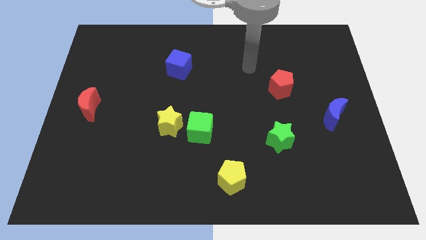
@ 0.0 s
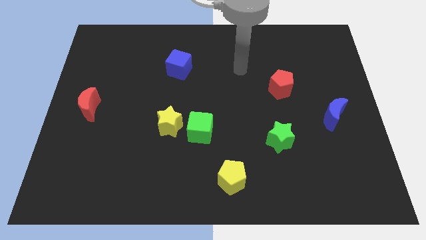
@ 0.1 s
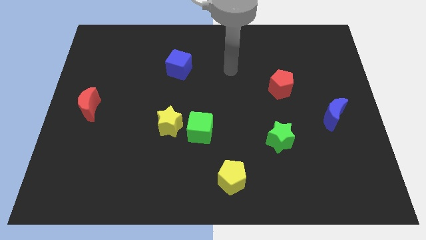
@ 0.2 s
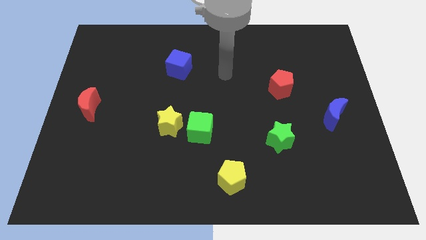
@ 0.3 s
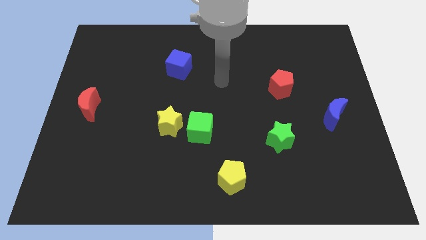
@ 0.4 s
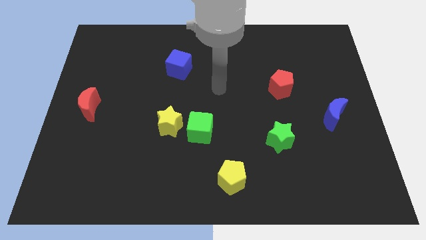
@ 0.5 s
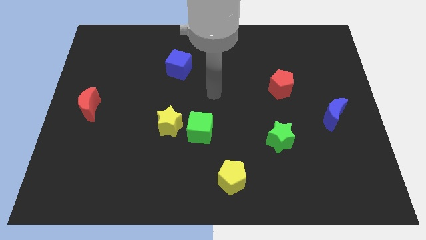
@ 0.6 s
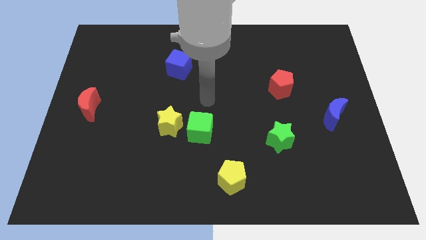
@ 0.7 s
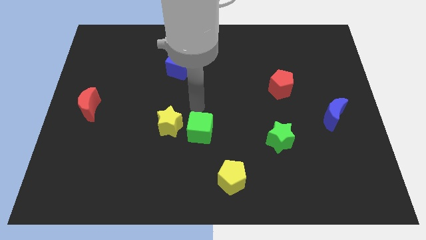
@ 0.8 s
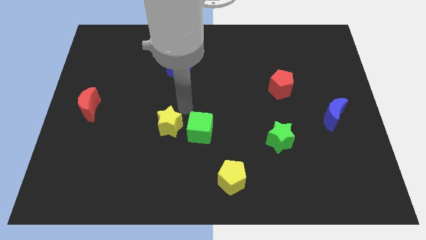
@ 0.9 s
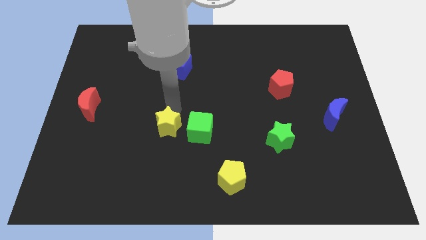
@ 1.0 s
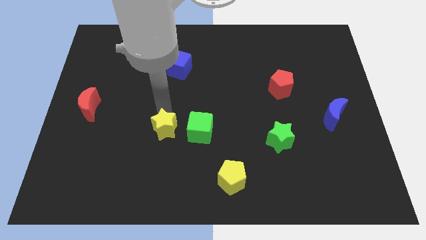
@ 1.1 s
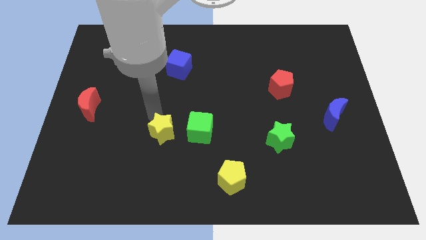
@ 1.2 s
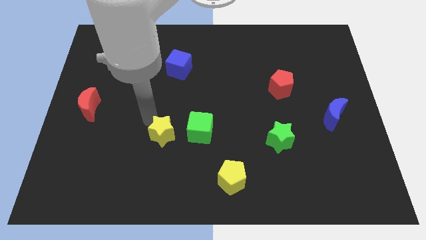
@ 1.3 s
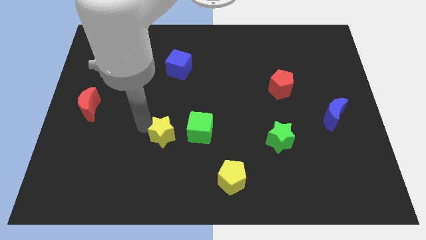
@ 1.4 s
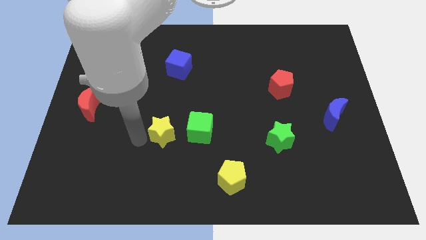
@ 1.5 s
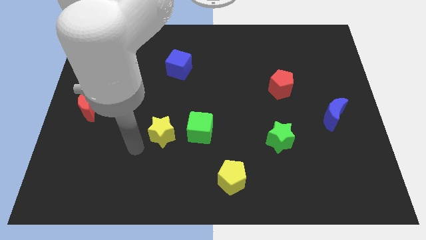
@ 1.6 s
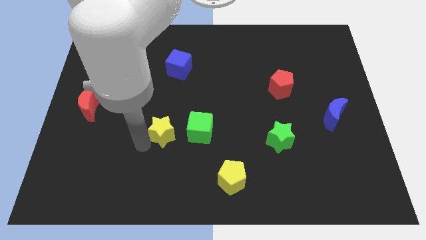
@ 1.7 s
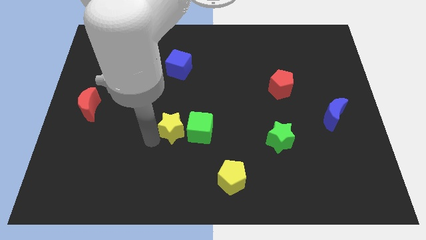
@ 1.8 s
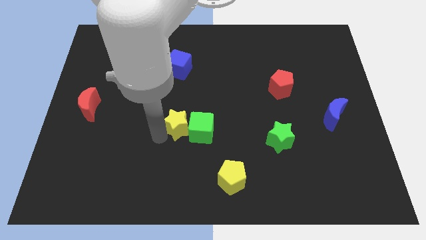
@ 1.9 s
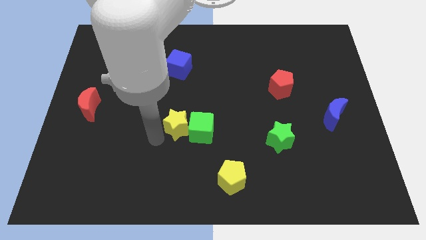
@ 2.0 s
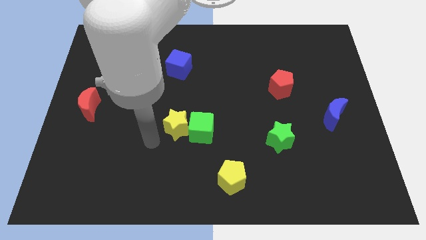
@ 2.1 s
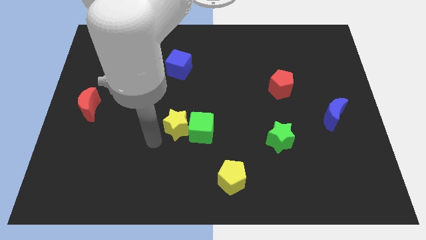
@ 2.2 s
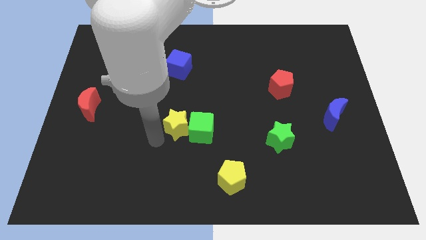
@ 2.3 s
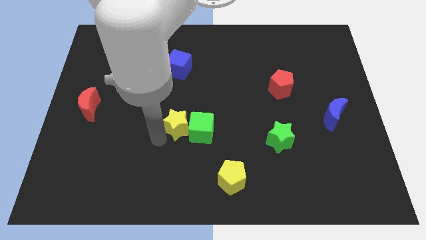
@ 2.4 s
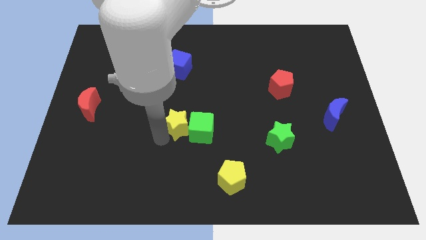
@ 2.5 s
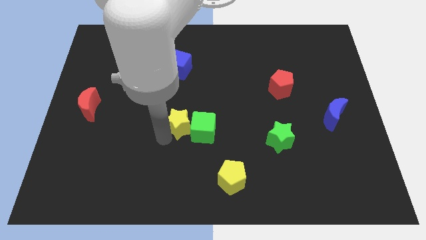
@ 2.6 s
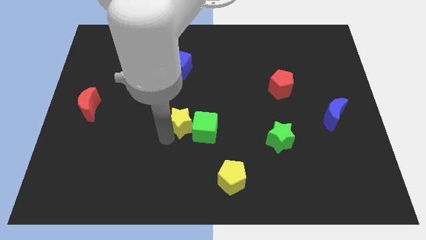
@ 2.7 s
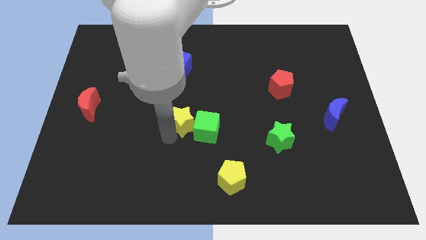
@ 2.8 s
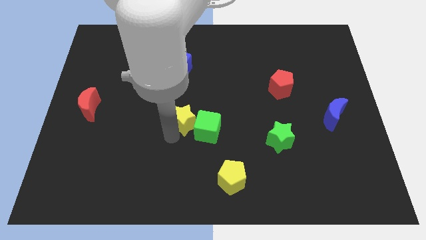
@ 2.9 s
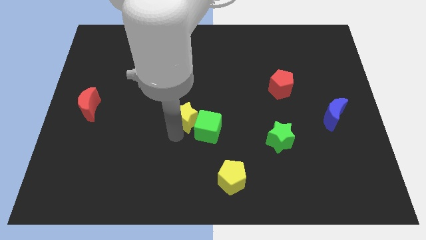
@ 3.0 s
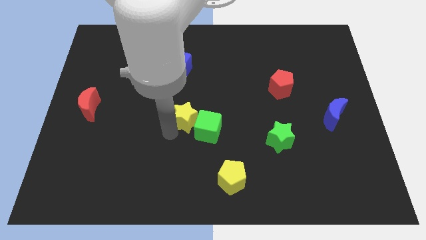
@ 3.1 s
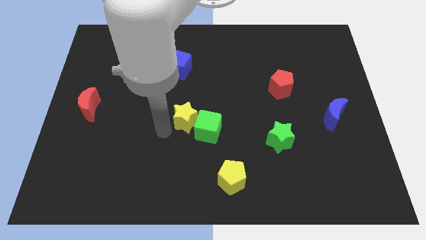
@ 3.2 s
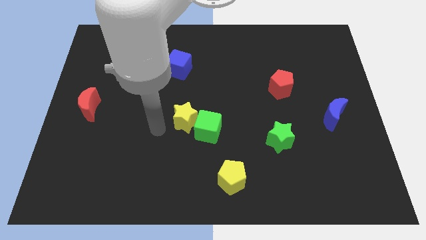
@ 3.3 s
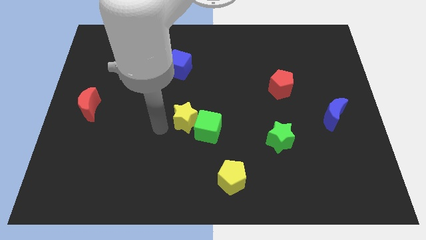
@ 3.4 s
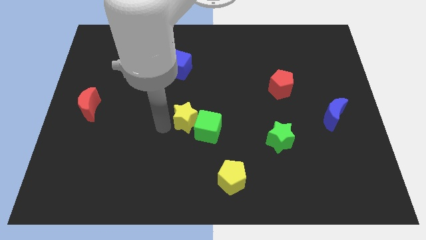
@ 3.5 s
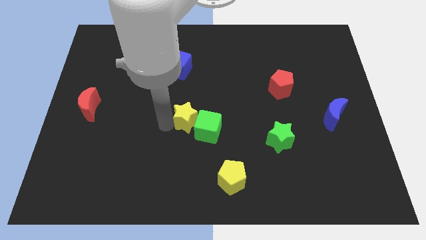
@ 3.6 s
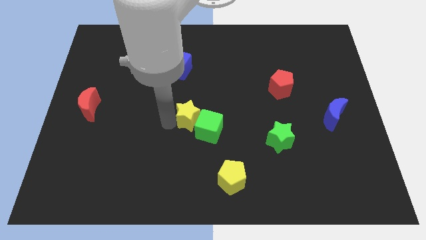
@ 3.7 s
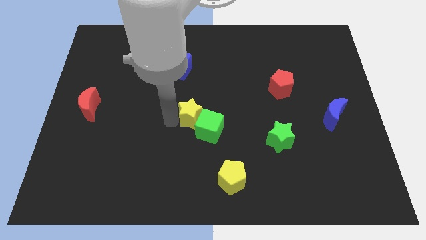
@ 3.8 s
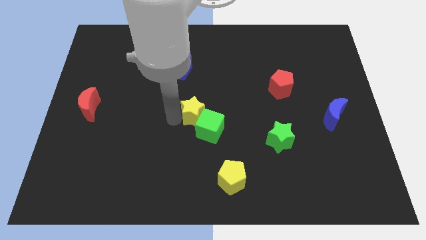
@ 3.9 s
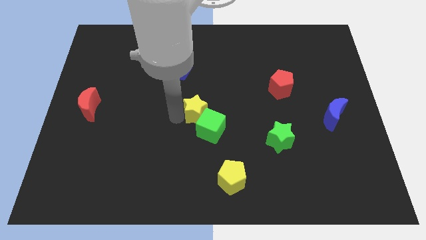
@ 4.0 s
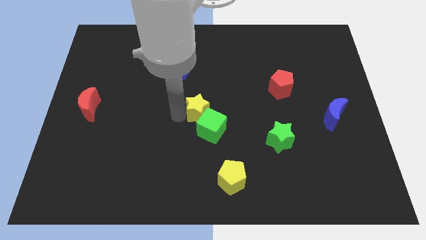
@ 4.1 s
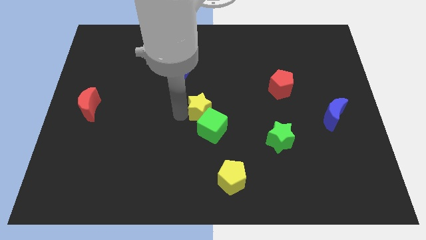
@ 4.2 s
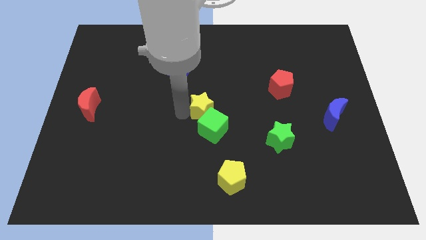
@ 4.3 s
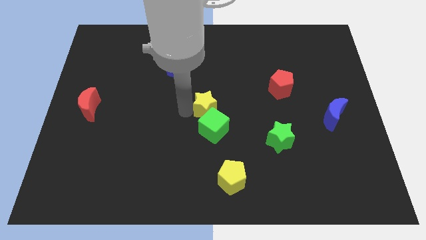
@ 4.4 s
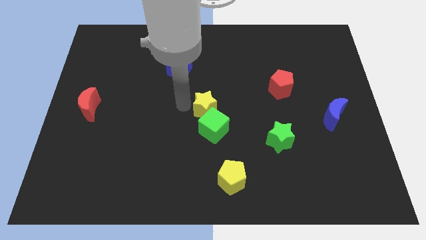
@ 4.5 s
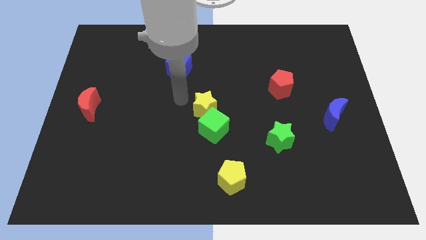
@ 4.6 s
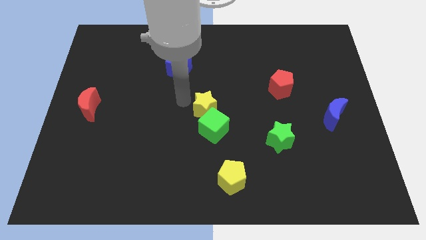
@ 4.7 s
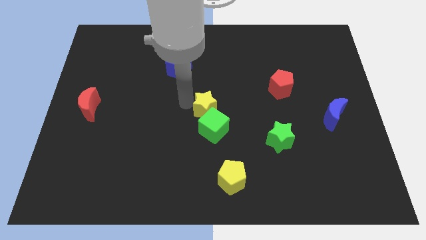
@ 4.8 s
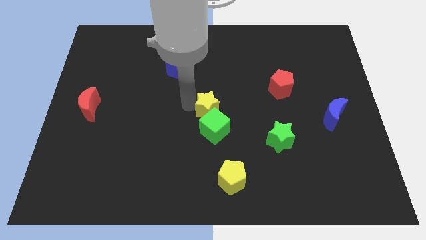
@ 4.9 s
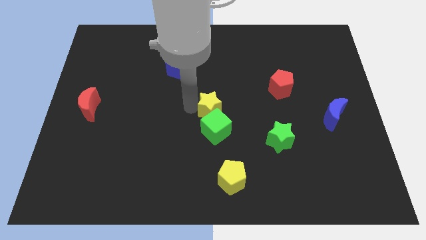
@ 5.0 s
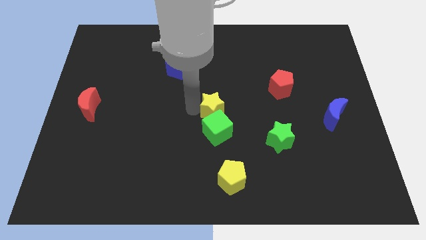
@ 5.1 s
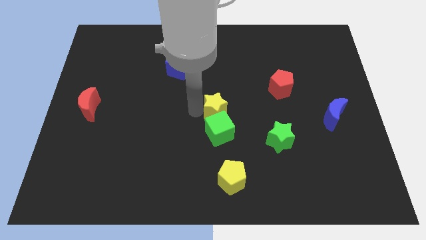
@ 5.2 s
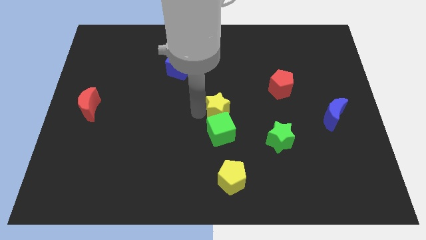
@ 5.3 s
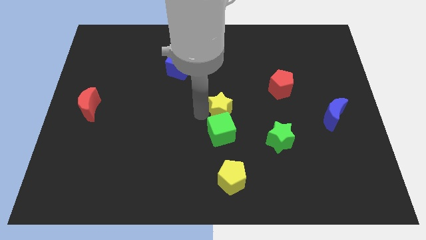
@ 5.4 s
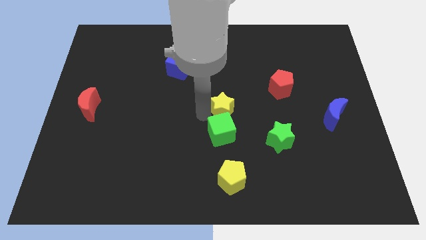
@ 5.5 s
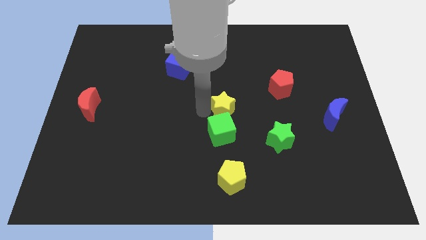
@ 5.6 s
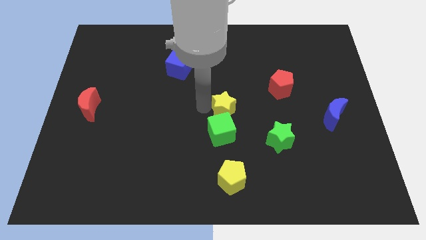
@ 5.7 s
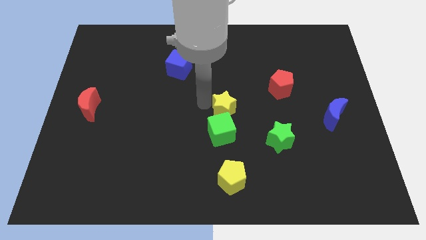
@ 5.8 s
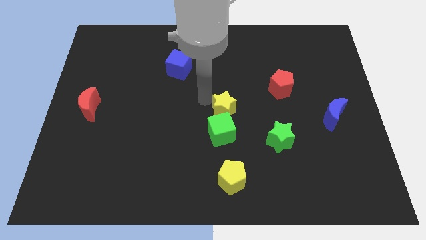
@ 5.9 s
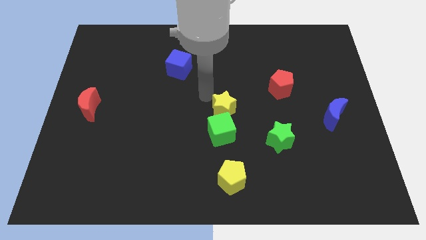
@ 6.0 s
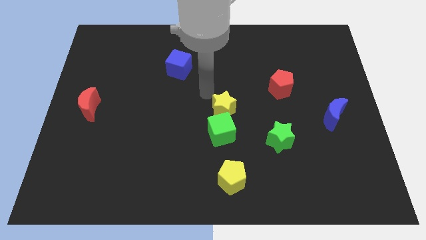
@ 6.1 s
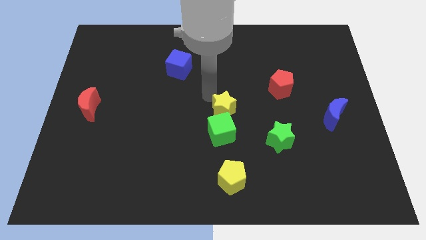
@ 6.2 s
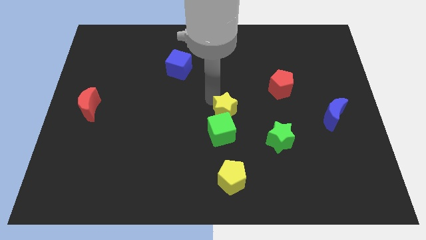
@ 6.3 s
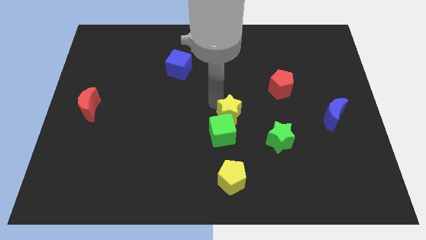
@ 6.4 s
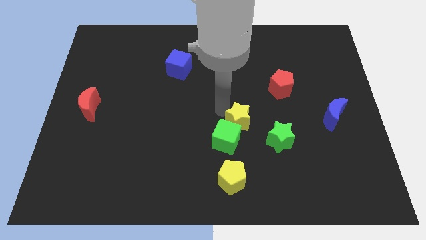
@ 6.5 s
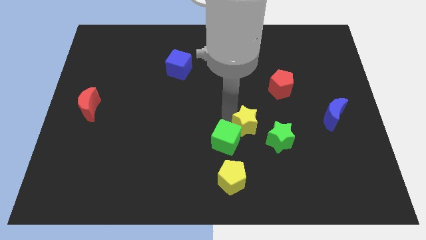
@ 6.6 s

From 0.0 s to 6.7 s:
put the yellow star to the right of the green cube

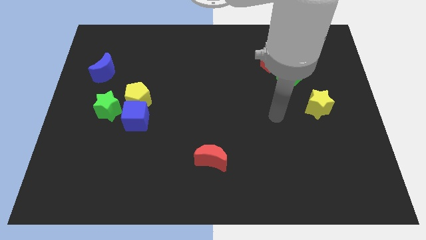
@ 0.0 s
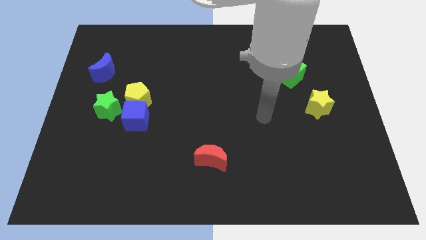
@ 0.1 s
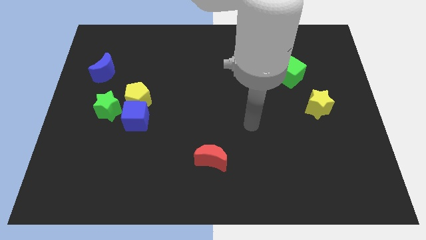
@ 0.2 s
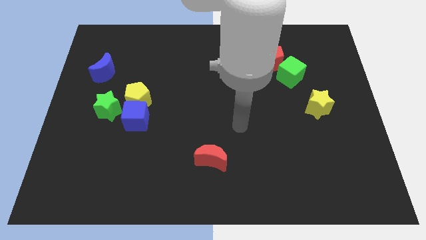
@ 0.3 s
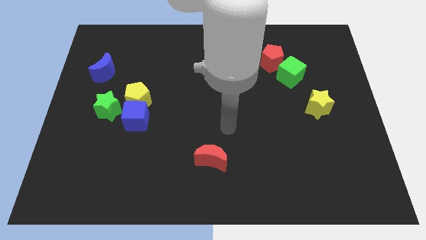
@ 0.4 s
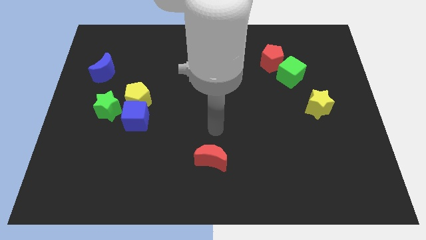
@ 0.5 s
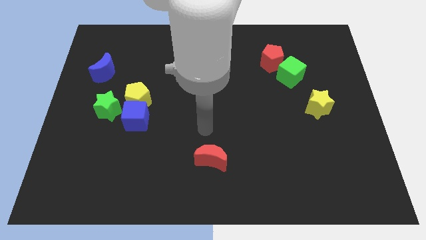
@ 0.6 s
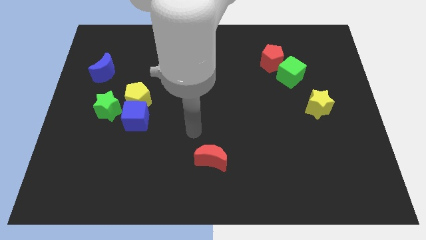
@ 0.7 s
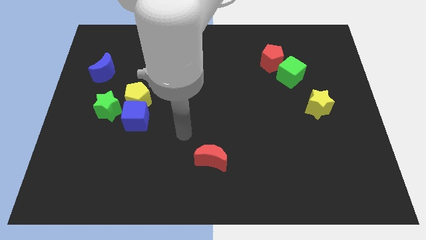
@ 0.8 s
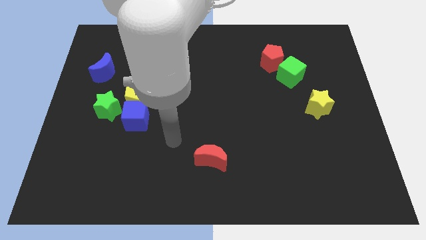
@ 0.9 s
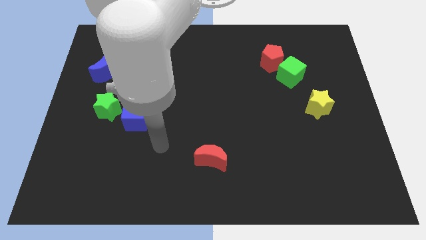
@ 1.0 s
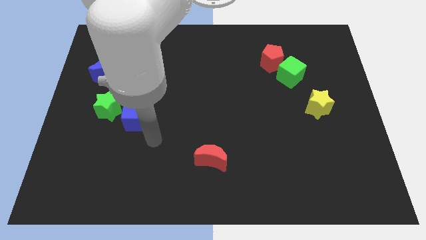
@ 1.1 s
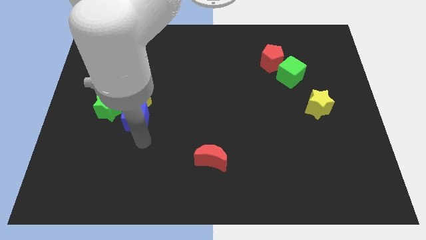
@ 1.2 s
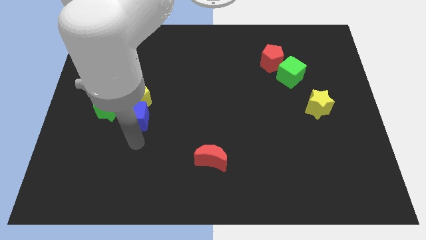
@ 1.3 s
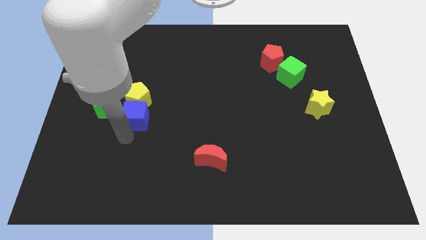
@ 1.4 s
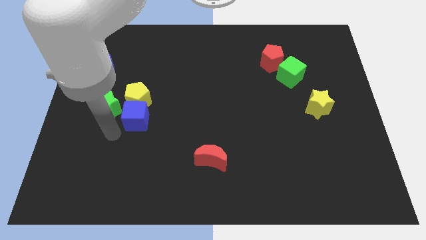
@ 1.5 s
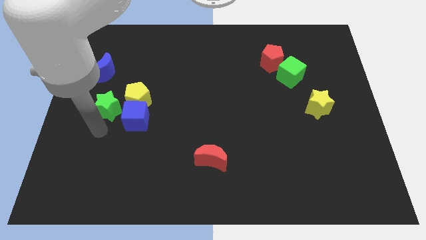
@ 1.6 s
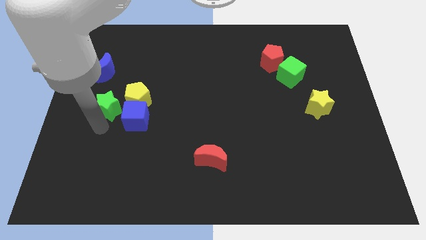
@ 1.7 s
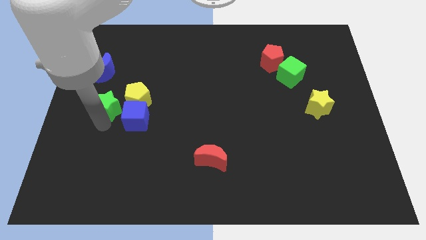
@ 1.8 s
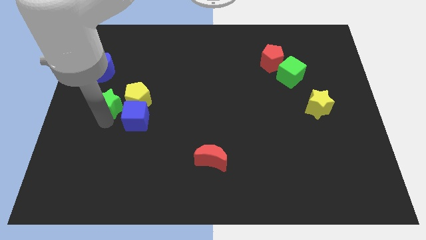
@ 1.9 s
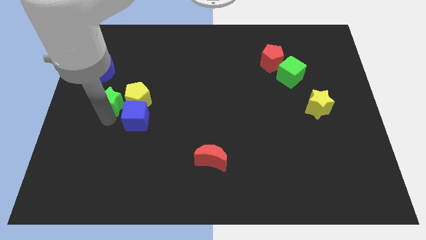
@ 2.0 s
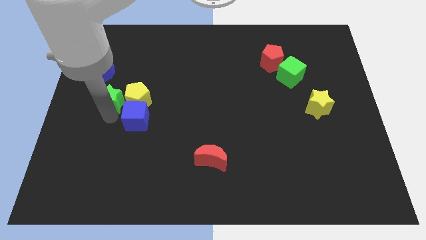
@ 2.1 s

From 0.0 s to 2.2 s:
put the green star diagonally up and to the left of the yellow pentagon
